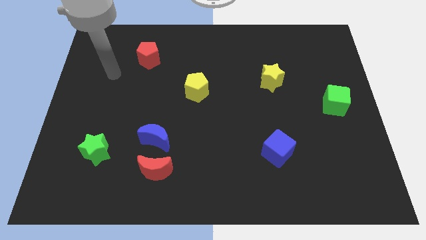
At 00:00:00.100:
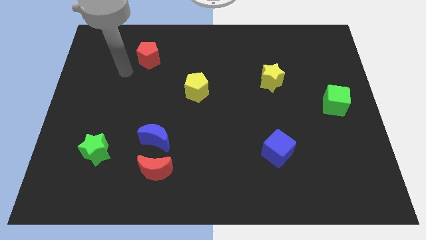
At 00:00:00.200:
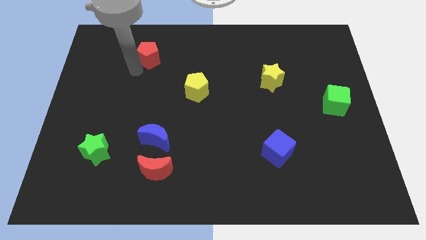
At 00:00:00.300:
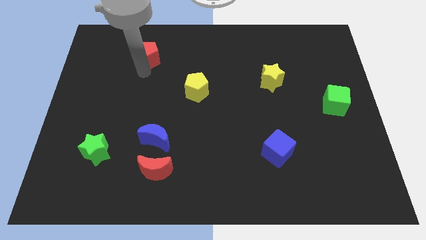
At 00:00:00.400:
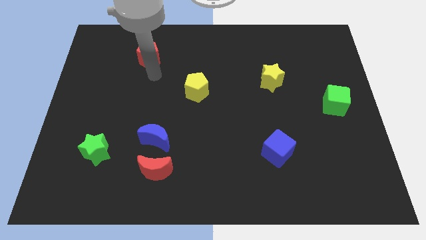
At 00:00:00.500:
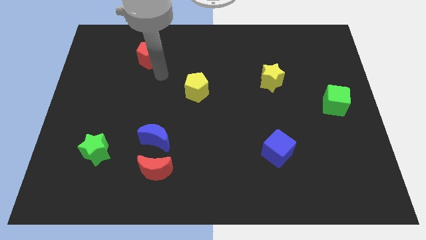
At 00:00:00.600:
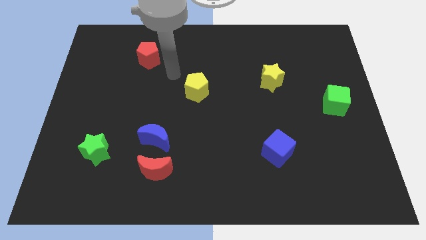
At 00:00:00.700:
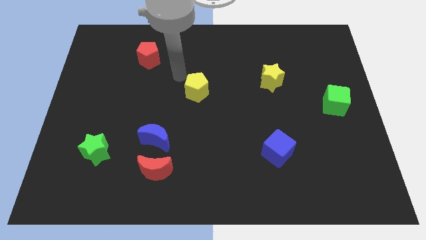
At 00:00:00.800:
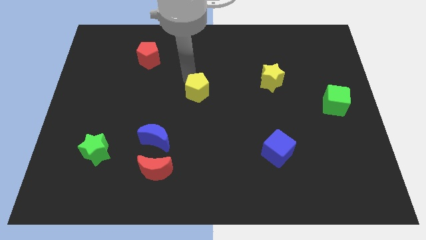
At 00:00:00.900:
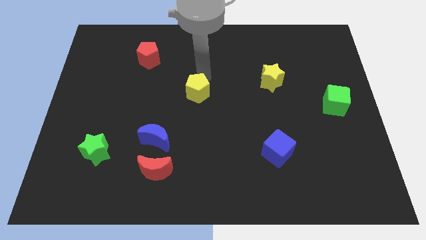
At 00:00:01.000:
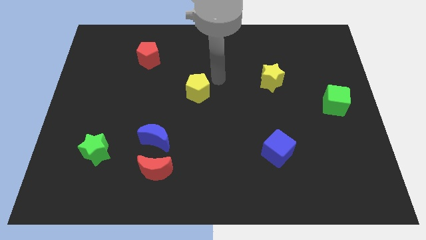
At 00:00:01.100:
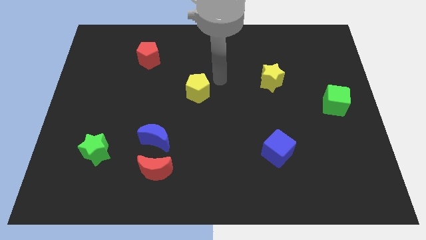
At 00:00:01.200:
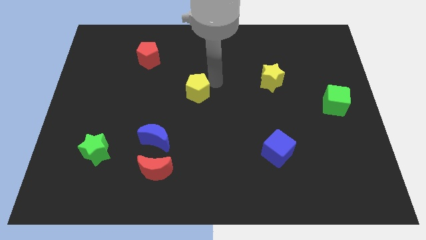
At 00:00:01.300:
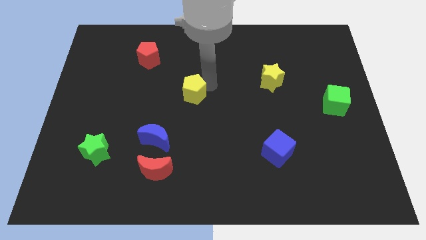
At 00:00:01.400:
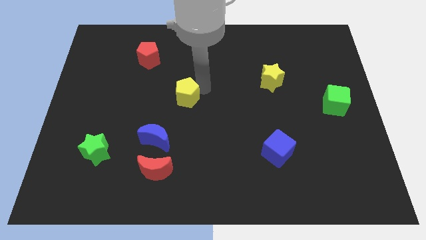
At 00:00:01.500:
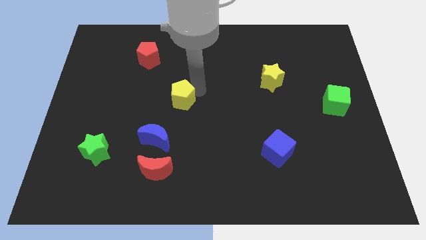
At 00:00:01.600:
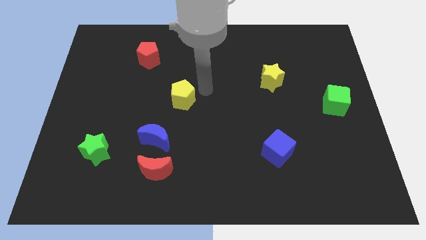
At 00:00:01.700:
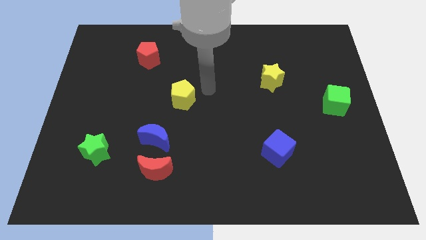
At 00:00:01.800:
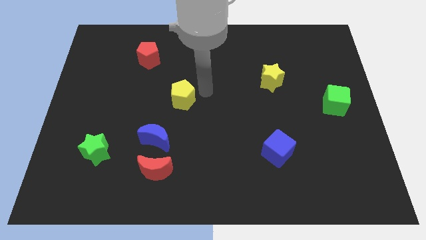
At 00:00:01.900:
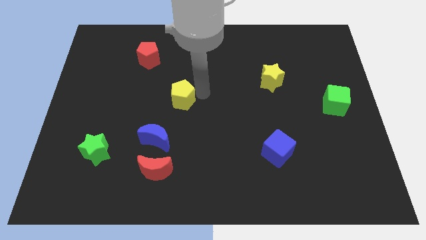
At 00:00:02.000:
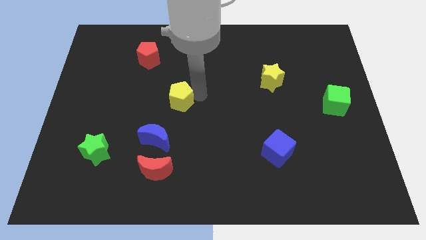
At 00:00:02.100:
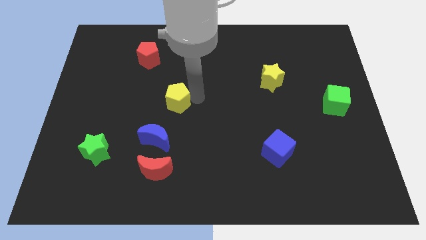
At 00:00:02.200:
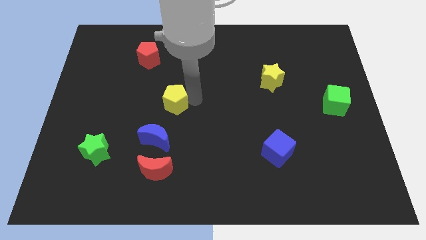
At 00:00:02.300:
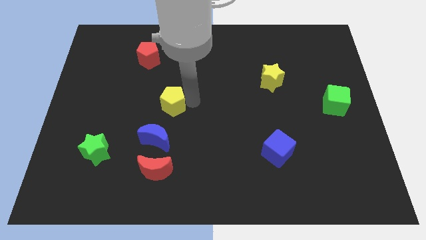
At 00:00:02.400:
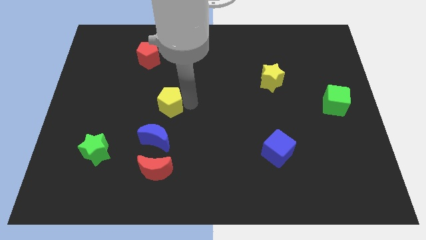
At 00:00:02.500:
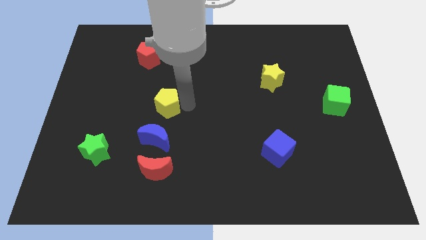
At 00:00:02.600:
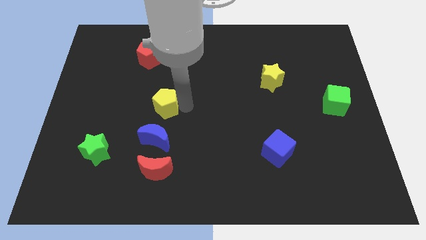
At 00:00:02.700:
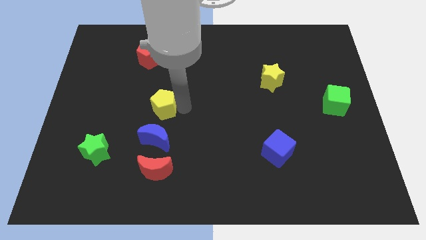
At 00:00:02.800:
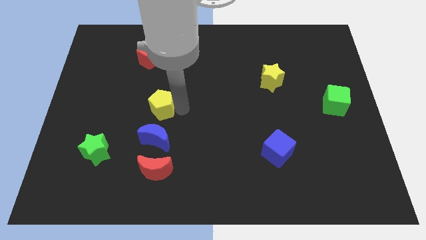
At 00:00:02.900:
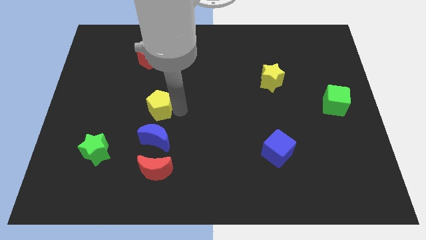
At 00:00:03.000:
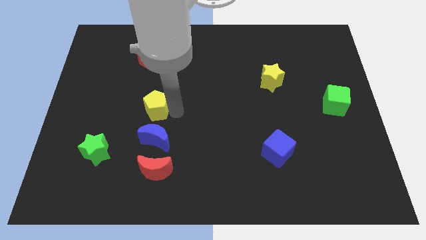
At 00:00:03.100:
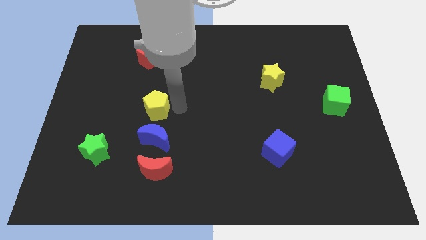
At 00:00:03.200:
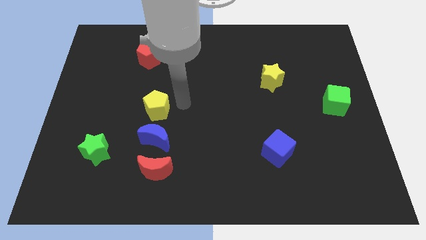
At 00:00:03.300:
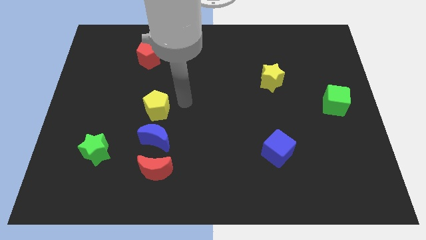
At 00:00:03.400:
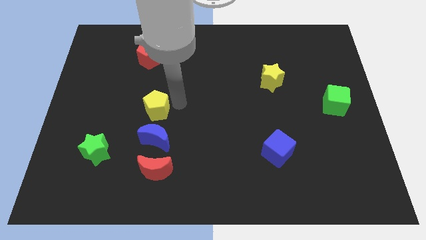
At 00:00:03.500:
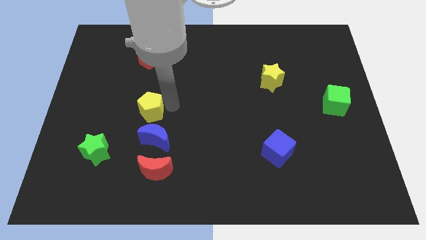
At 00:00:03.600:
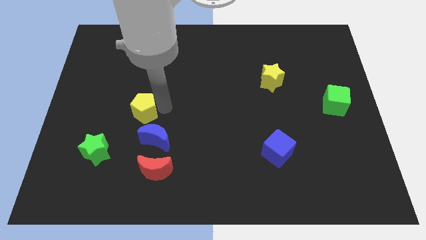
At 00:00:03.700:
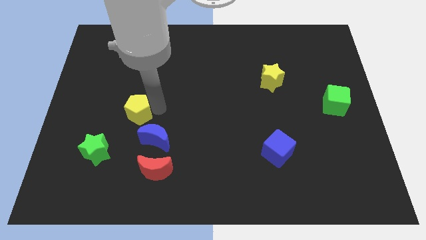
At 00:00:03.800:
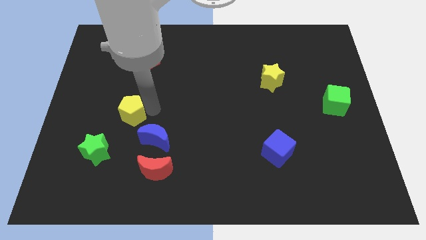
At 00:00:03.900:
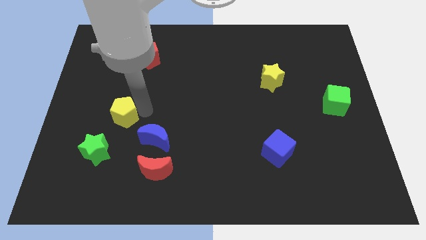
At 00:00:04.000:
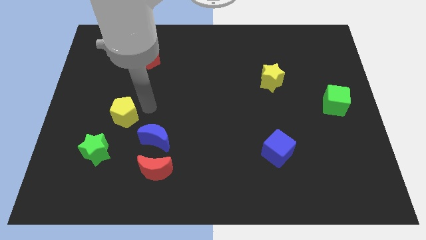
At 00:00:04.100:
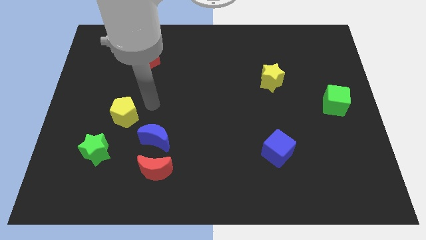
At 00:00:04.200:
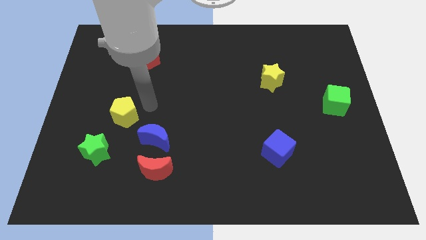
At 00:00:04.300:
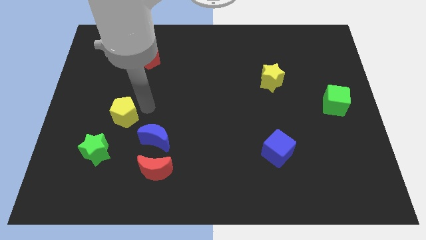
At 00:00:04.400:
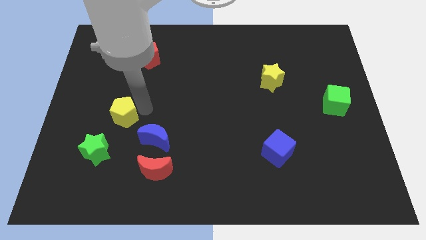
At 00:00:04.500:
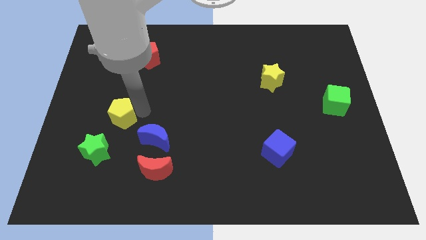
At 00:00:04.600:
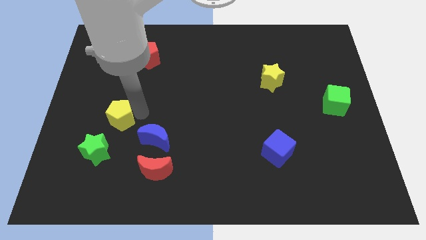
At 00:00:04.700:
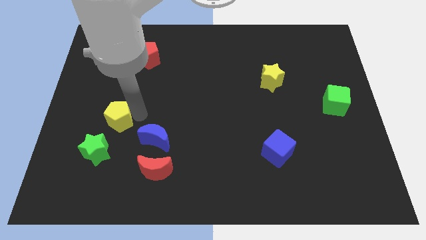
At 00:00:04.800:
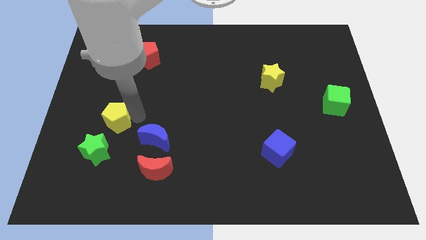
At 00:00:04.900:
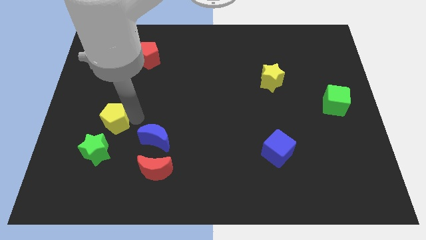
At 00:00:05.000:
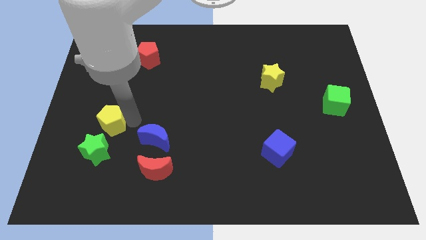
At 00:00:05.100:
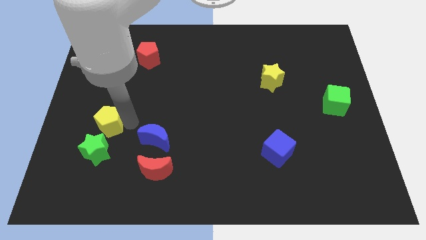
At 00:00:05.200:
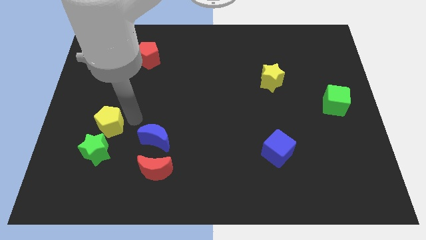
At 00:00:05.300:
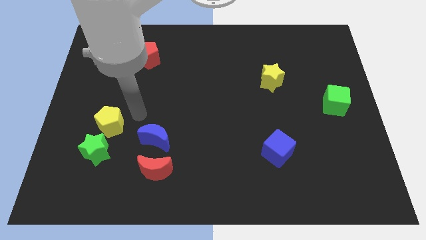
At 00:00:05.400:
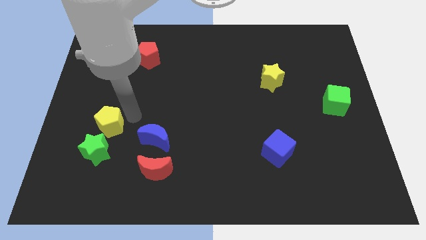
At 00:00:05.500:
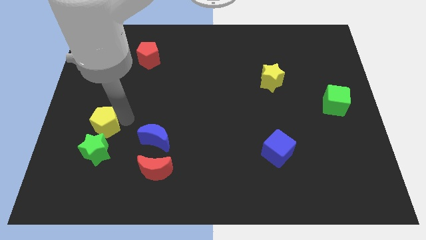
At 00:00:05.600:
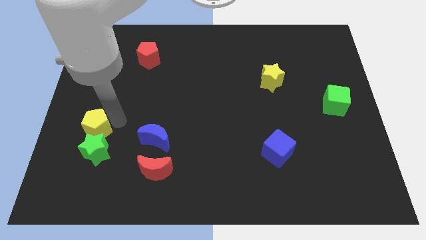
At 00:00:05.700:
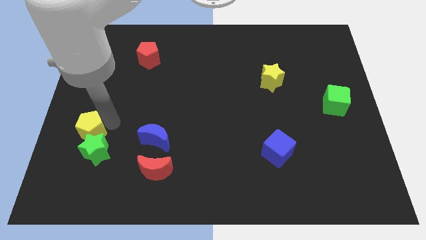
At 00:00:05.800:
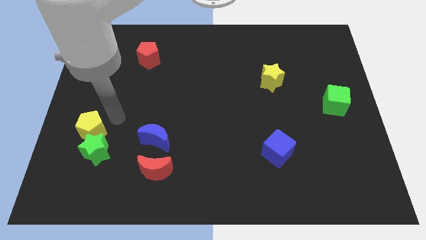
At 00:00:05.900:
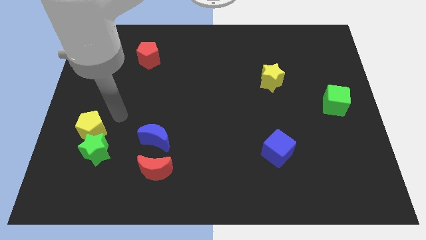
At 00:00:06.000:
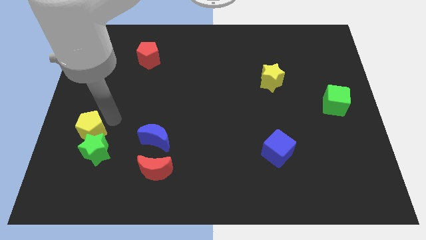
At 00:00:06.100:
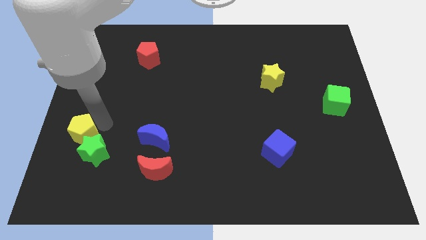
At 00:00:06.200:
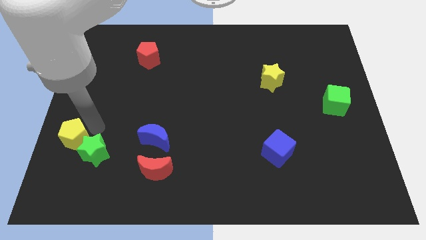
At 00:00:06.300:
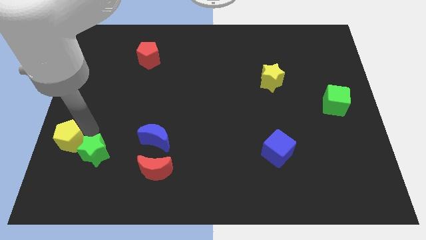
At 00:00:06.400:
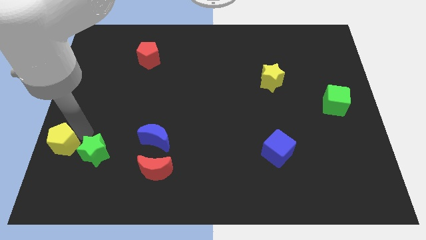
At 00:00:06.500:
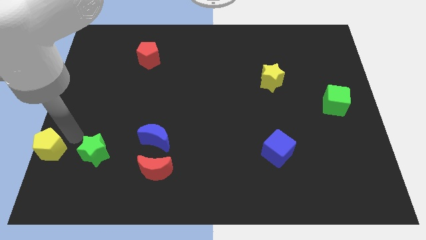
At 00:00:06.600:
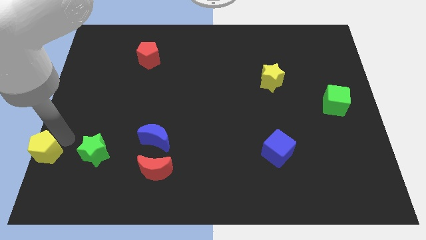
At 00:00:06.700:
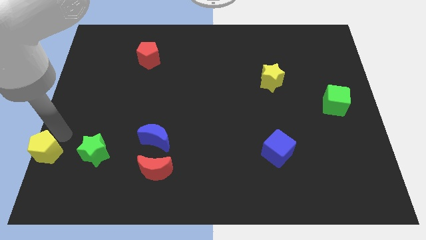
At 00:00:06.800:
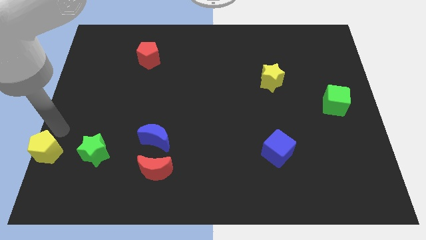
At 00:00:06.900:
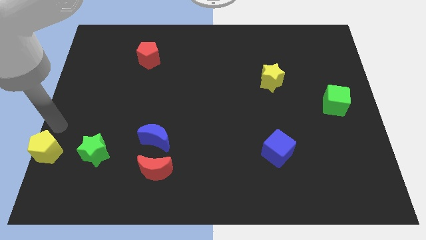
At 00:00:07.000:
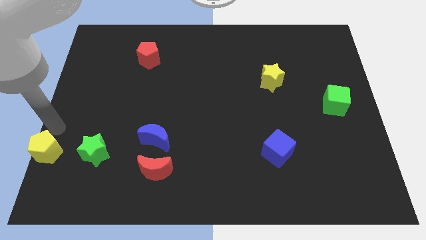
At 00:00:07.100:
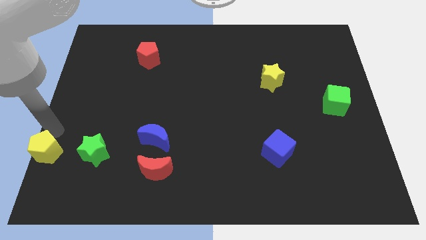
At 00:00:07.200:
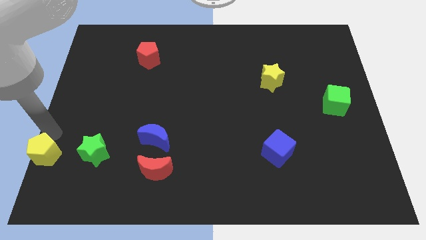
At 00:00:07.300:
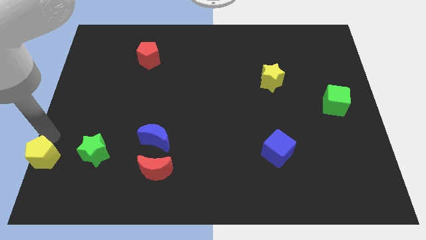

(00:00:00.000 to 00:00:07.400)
put the yellow pentagon to the bottom left of the board
